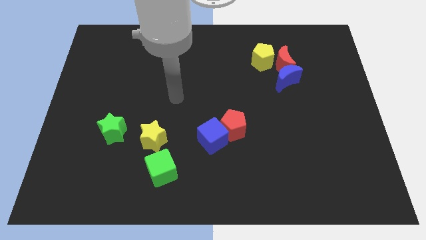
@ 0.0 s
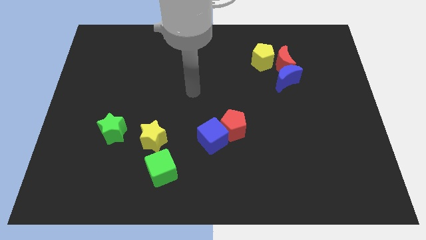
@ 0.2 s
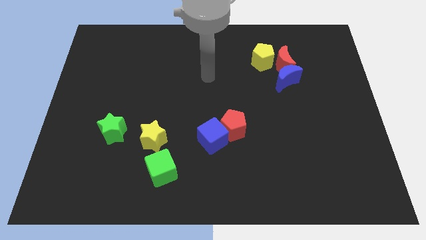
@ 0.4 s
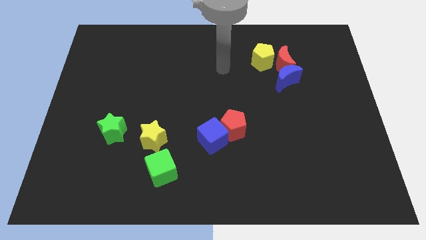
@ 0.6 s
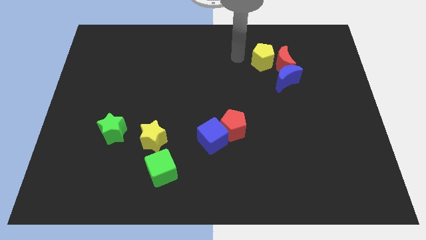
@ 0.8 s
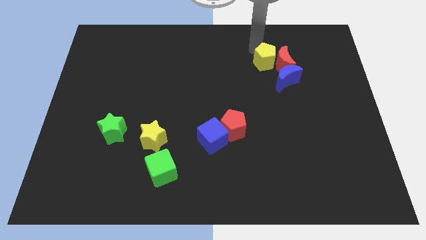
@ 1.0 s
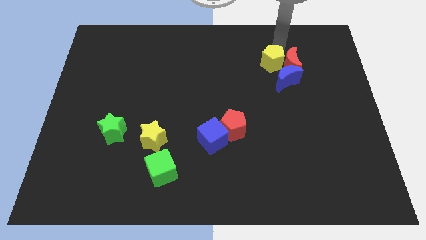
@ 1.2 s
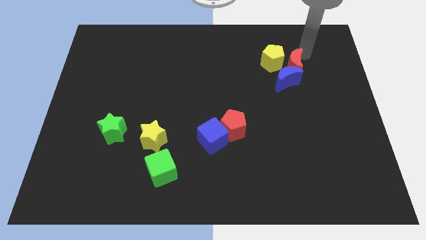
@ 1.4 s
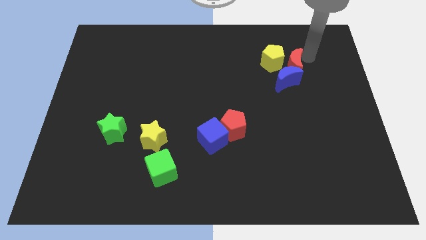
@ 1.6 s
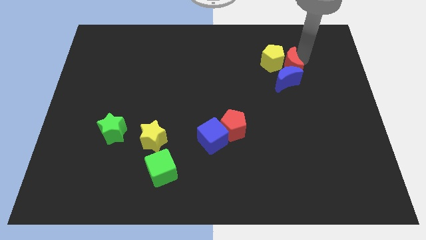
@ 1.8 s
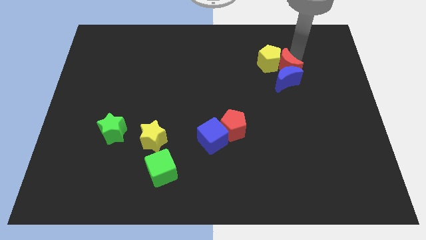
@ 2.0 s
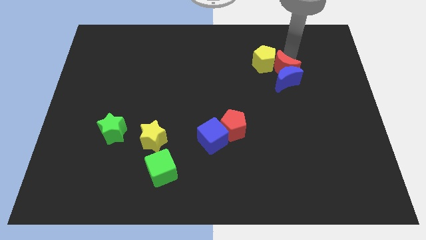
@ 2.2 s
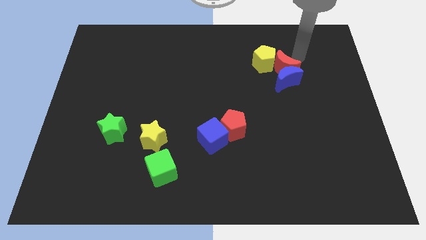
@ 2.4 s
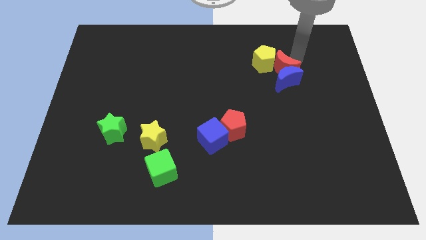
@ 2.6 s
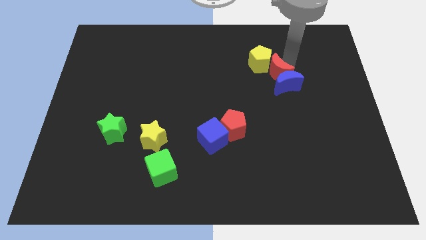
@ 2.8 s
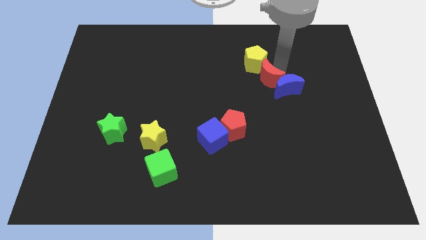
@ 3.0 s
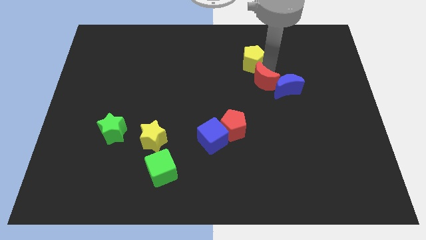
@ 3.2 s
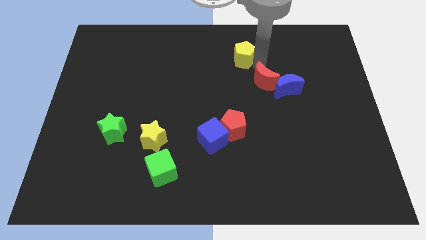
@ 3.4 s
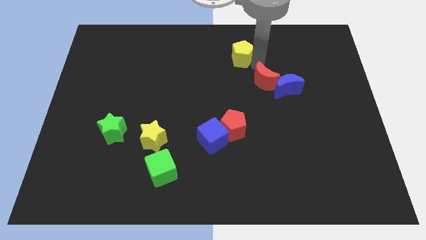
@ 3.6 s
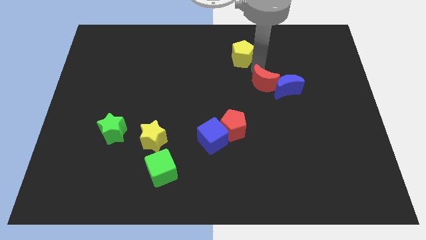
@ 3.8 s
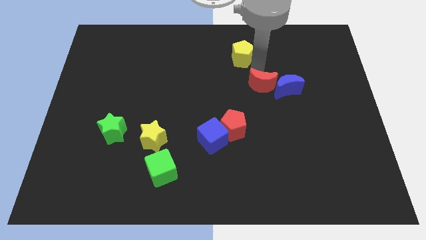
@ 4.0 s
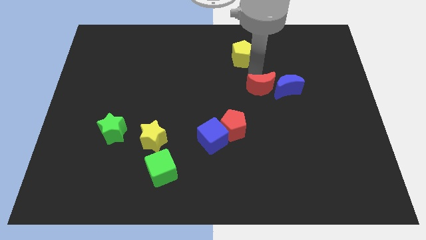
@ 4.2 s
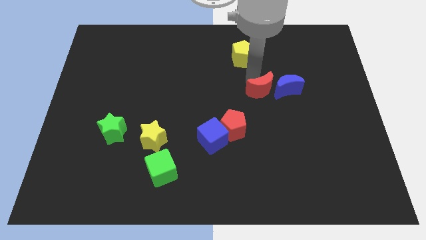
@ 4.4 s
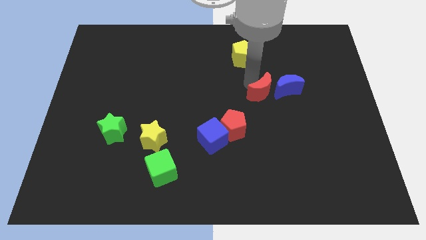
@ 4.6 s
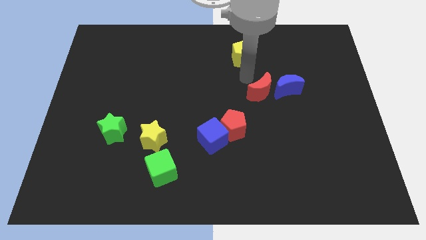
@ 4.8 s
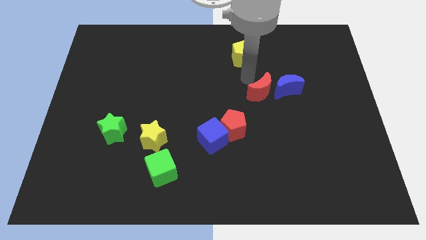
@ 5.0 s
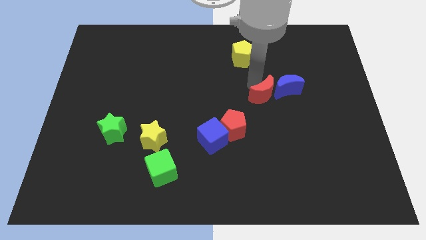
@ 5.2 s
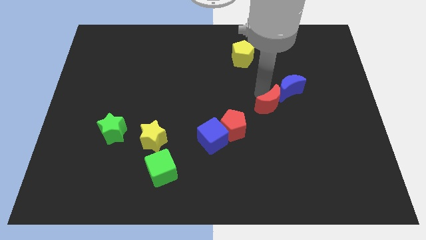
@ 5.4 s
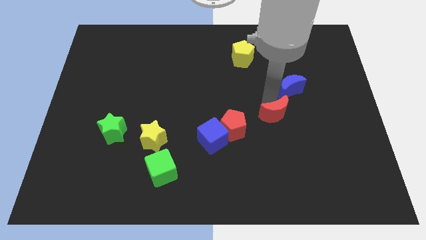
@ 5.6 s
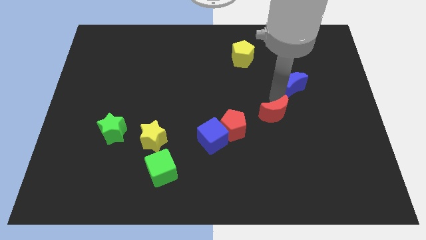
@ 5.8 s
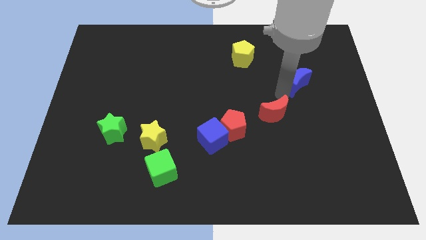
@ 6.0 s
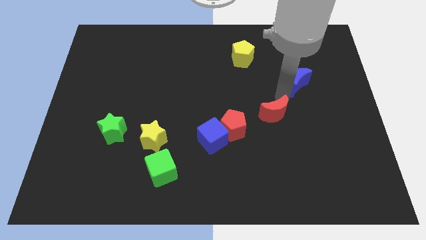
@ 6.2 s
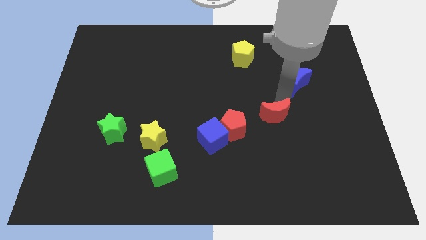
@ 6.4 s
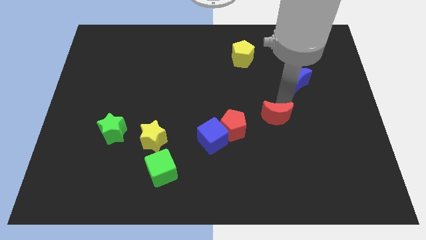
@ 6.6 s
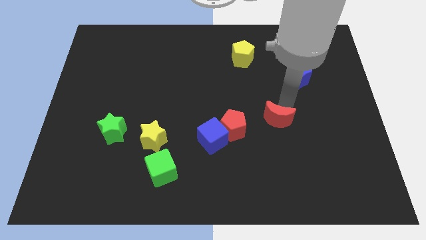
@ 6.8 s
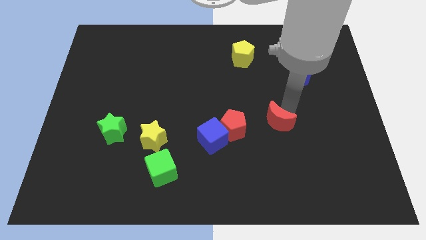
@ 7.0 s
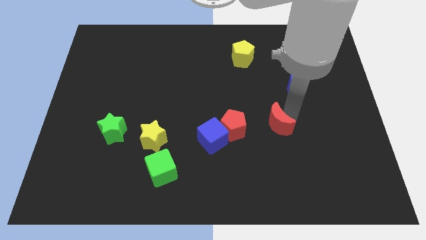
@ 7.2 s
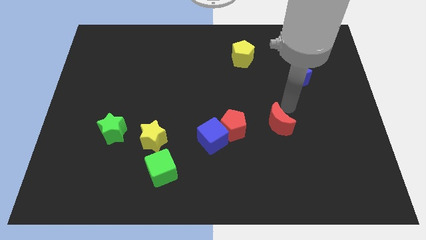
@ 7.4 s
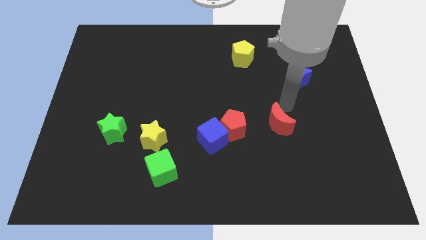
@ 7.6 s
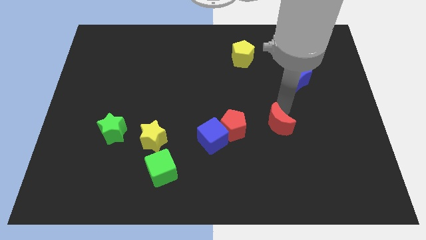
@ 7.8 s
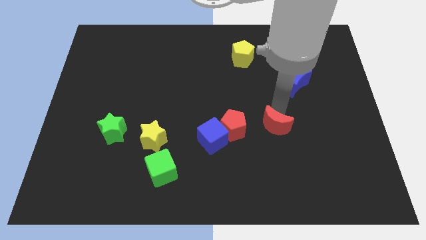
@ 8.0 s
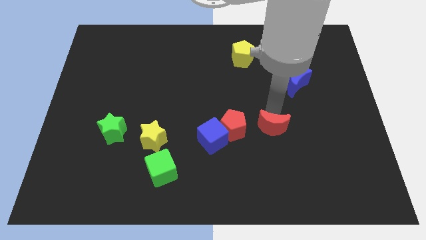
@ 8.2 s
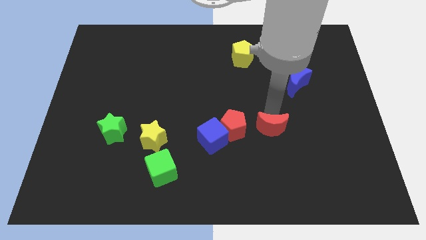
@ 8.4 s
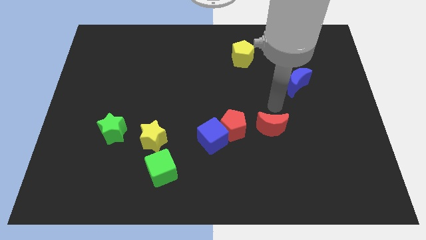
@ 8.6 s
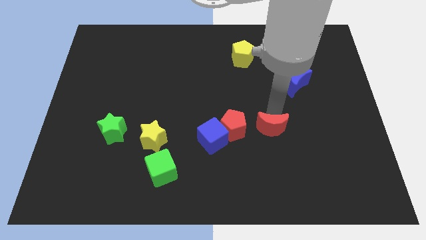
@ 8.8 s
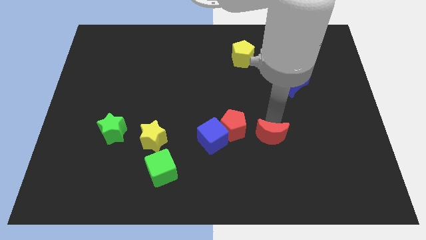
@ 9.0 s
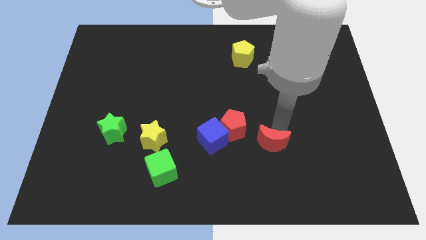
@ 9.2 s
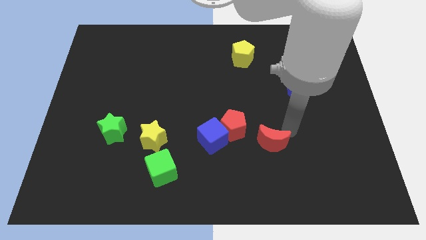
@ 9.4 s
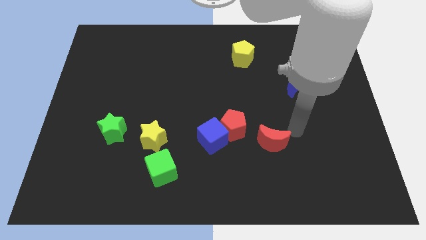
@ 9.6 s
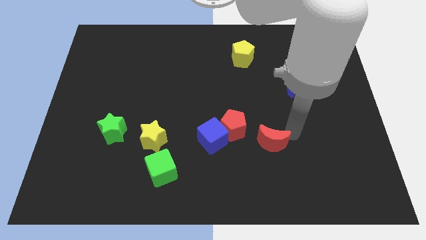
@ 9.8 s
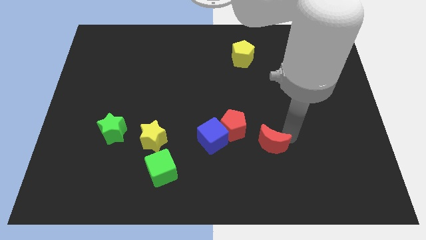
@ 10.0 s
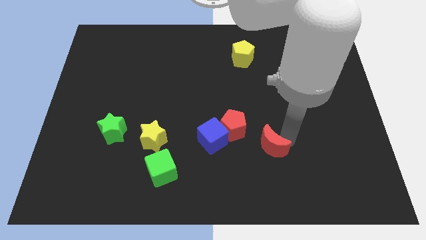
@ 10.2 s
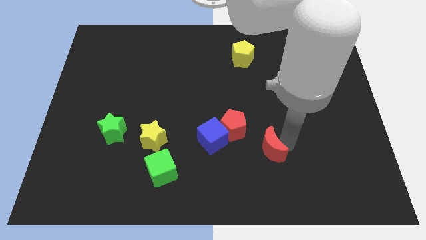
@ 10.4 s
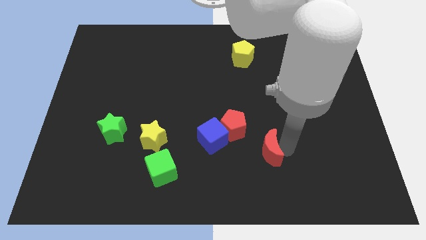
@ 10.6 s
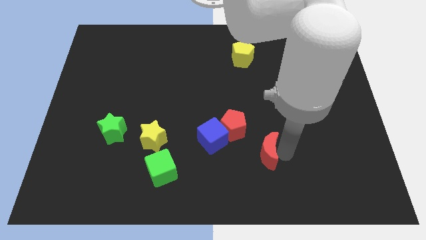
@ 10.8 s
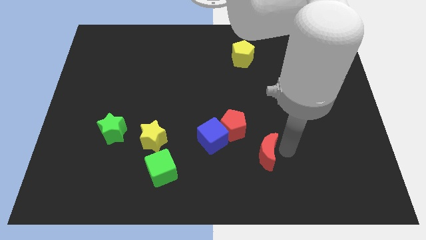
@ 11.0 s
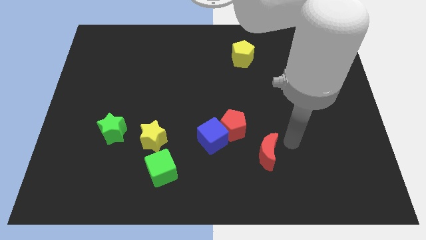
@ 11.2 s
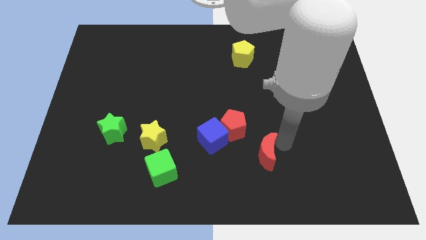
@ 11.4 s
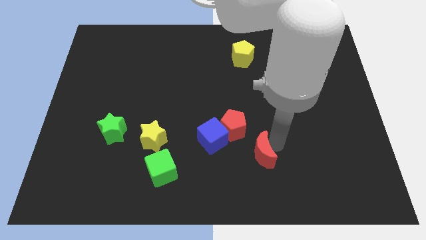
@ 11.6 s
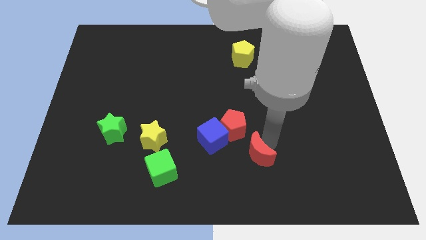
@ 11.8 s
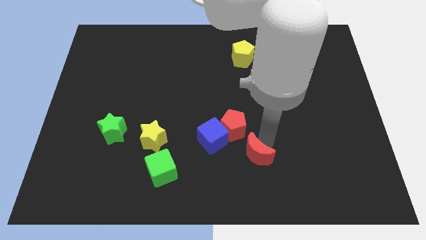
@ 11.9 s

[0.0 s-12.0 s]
push the red moon below the red pentagon

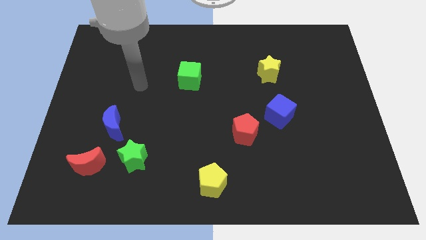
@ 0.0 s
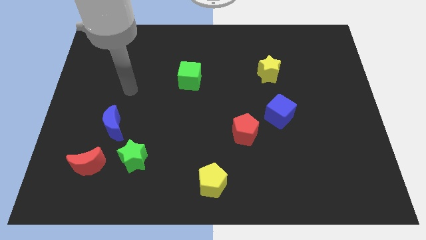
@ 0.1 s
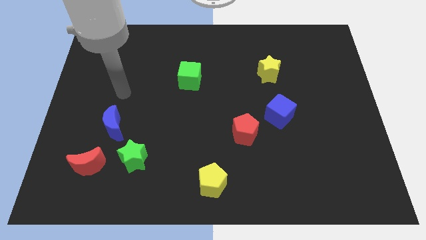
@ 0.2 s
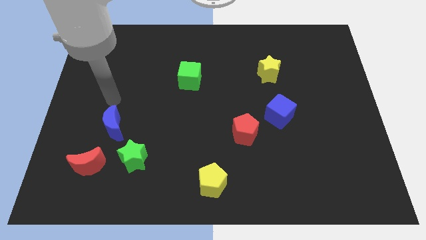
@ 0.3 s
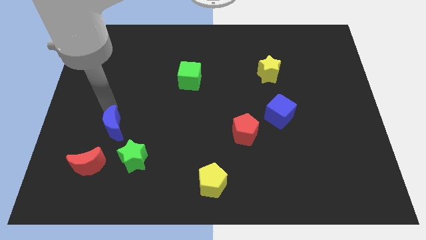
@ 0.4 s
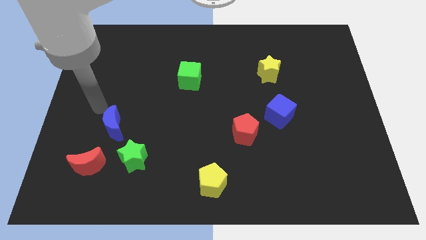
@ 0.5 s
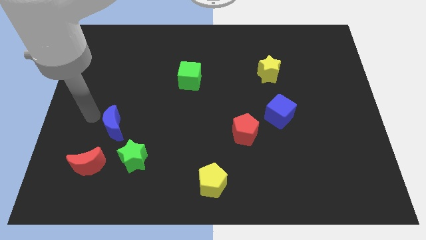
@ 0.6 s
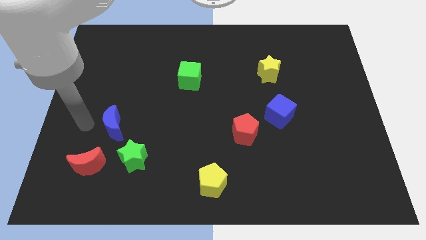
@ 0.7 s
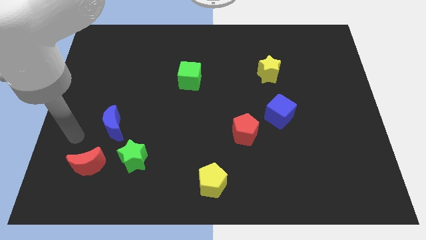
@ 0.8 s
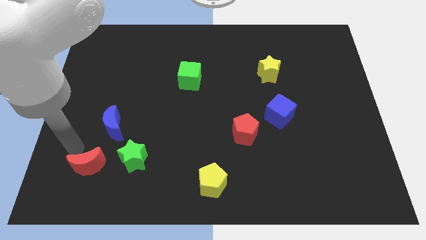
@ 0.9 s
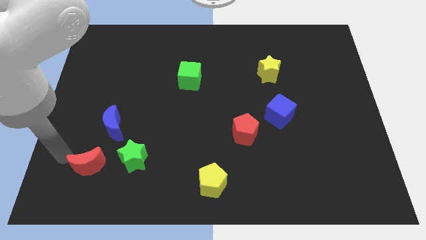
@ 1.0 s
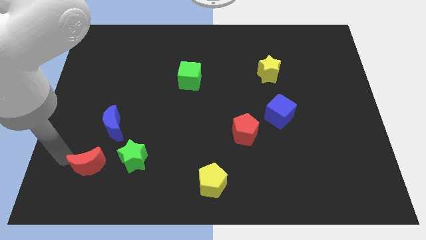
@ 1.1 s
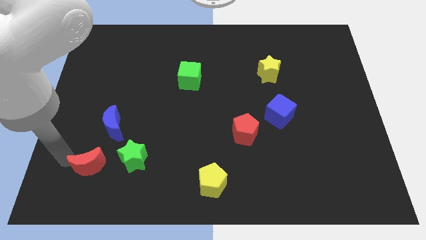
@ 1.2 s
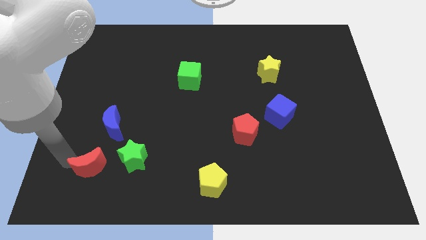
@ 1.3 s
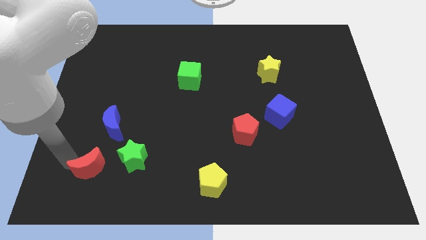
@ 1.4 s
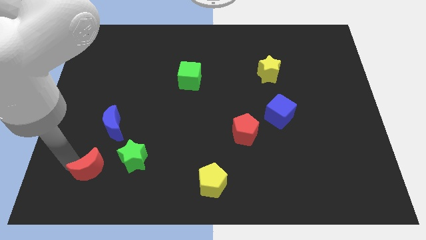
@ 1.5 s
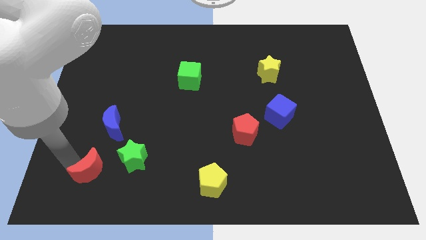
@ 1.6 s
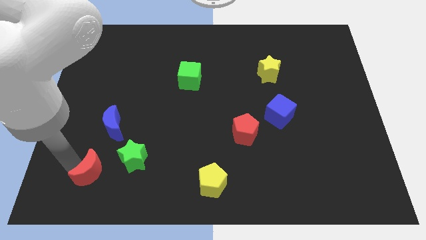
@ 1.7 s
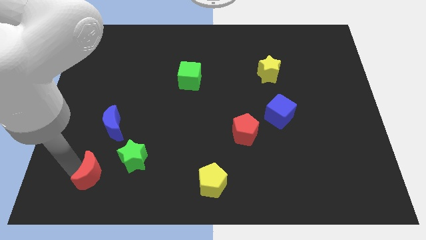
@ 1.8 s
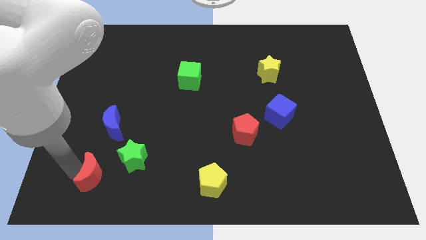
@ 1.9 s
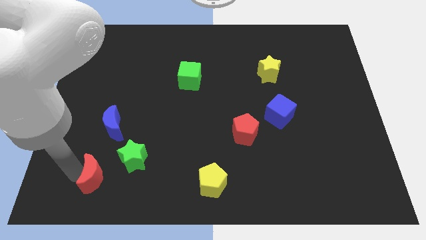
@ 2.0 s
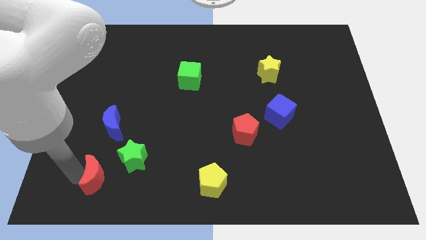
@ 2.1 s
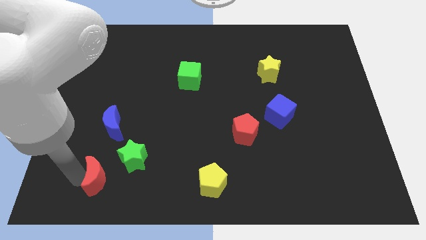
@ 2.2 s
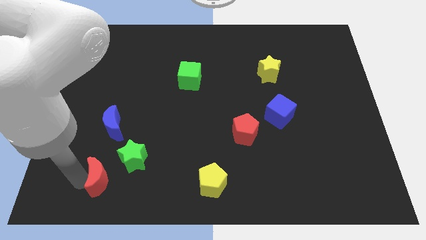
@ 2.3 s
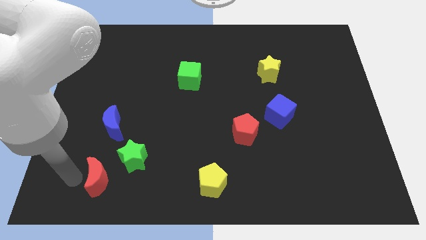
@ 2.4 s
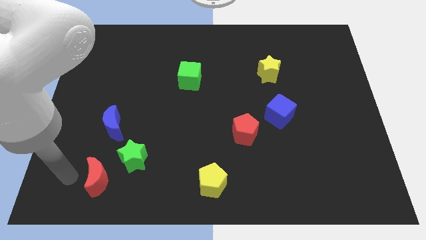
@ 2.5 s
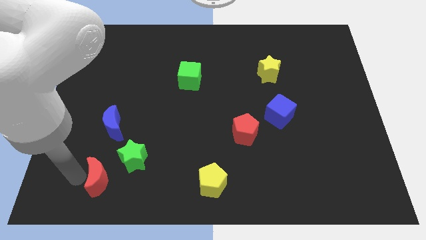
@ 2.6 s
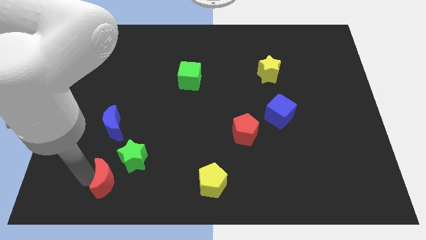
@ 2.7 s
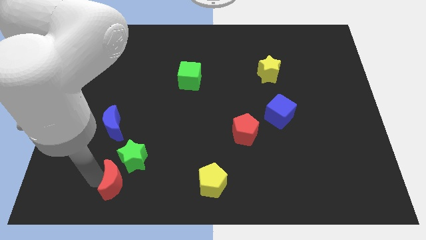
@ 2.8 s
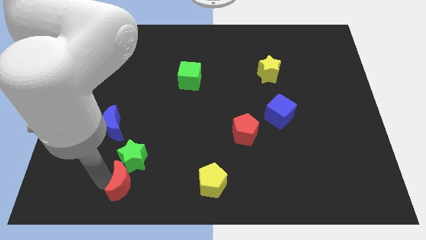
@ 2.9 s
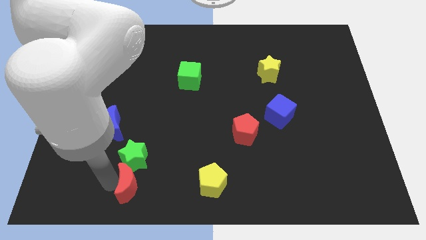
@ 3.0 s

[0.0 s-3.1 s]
slide the red moon to the bottom right side of the green star
